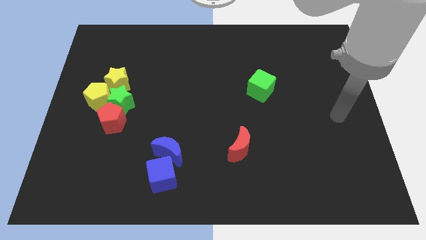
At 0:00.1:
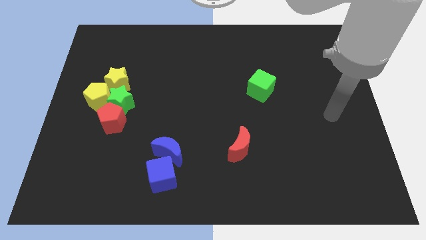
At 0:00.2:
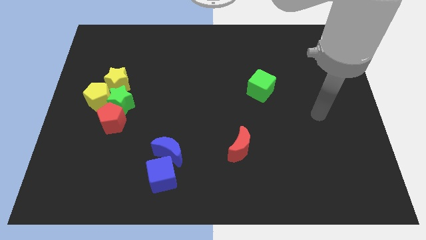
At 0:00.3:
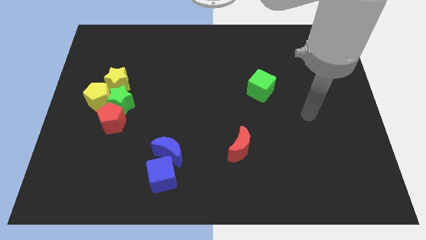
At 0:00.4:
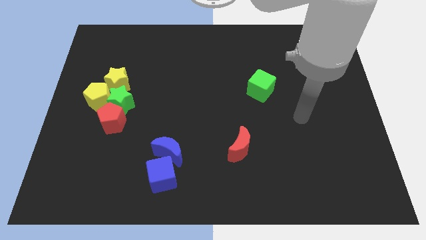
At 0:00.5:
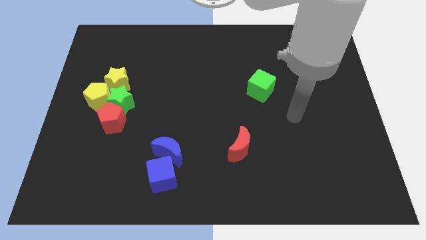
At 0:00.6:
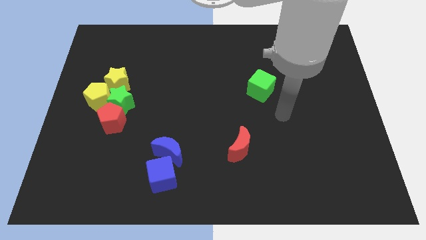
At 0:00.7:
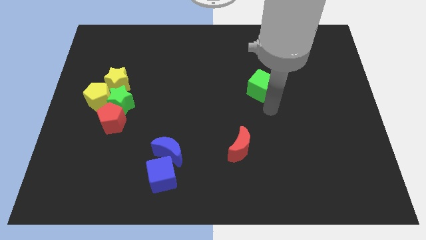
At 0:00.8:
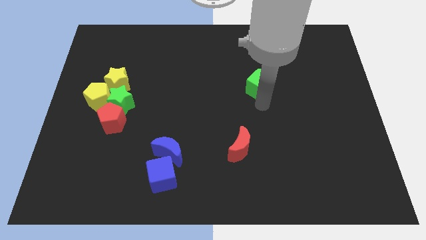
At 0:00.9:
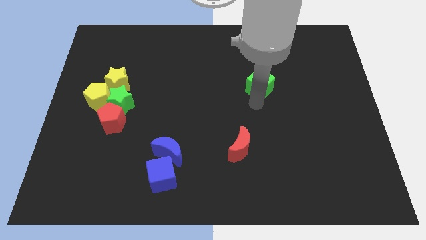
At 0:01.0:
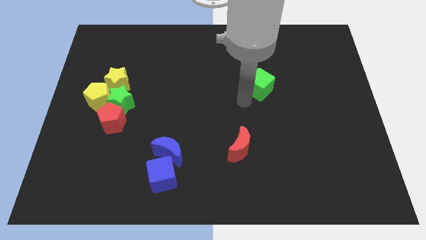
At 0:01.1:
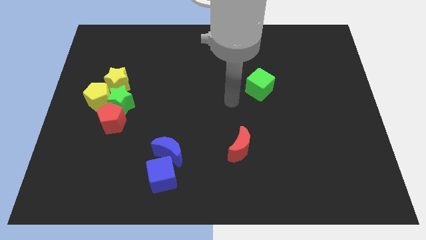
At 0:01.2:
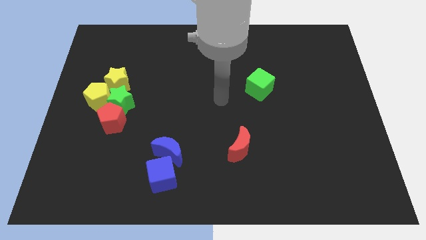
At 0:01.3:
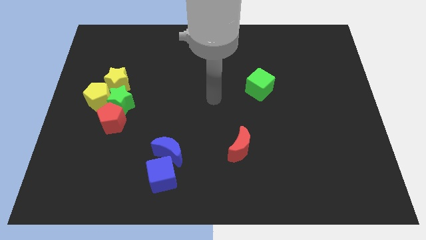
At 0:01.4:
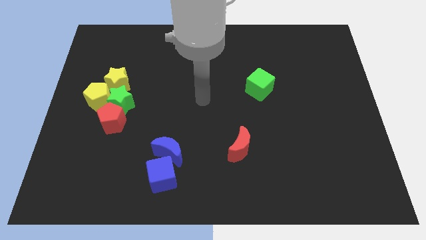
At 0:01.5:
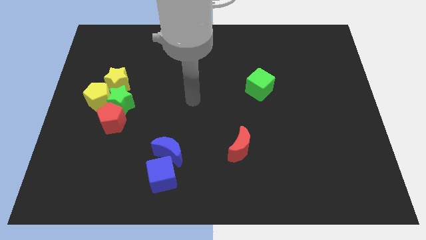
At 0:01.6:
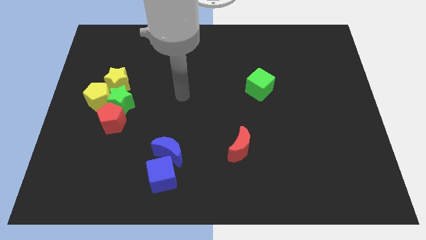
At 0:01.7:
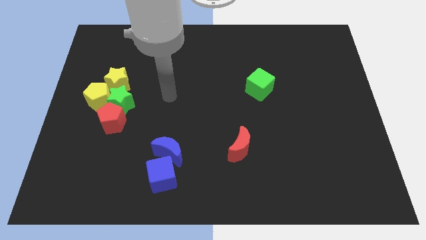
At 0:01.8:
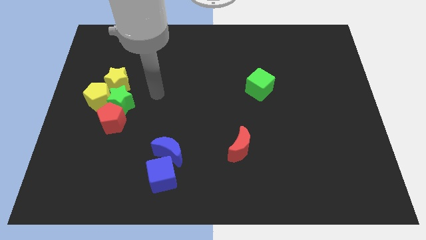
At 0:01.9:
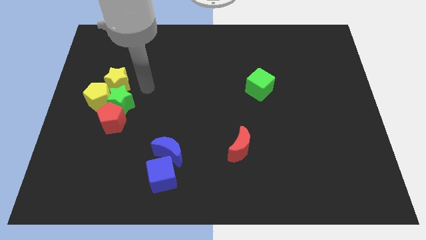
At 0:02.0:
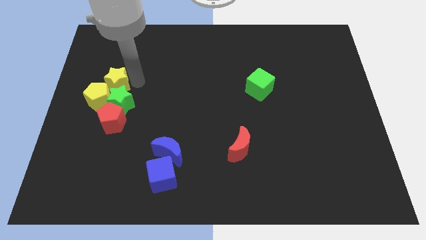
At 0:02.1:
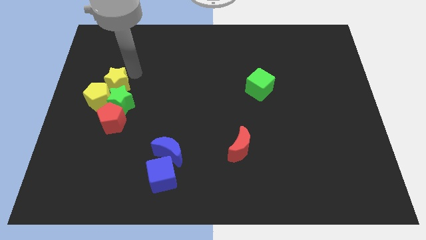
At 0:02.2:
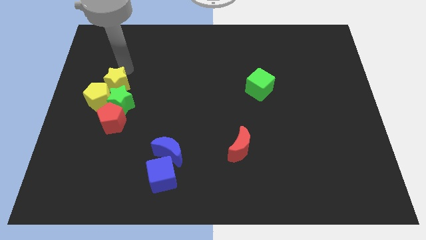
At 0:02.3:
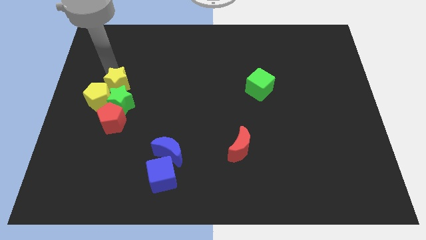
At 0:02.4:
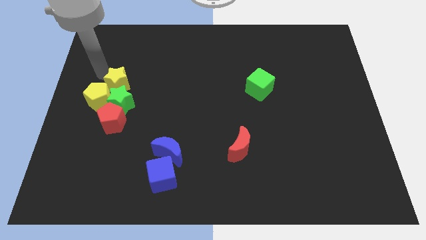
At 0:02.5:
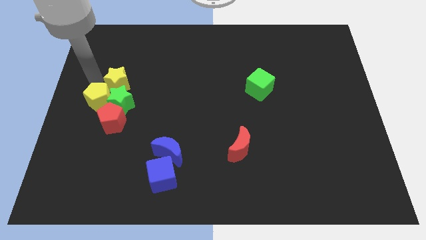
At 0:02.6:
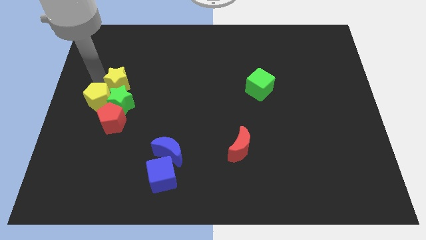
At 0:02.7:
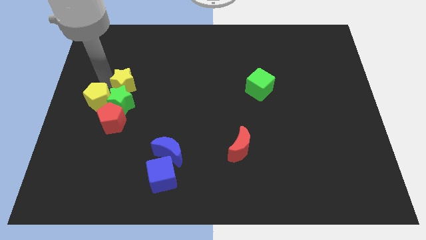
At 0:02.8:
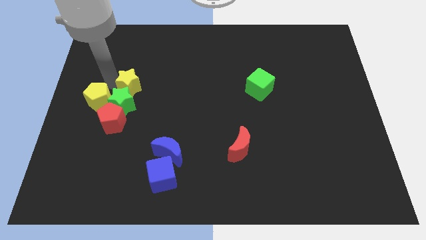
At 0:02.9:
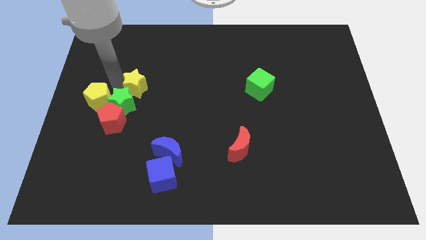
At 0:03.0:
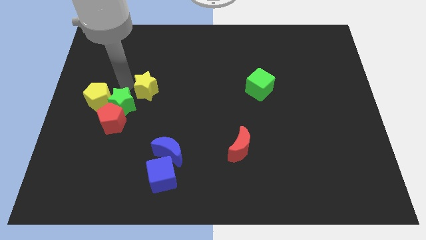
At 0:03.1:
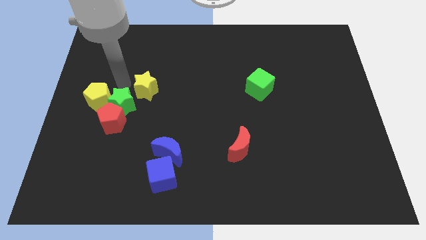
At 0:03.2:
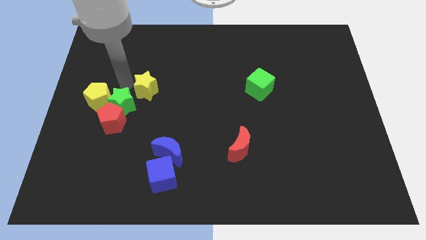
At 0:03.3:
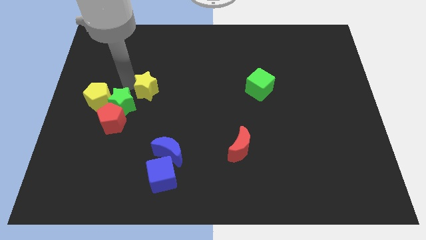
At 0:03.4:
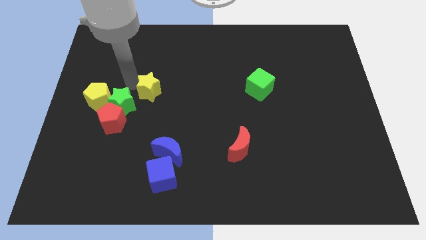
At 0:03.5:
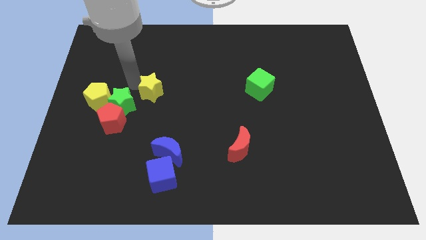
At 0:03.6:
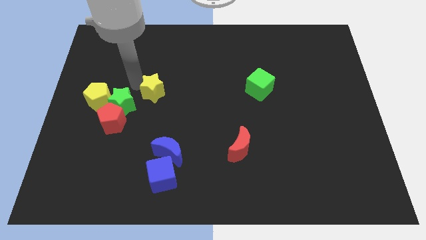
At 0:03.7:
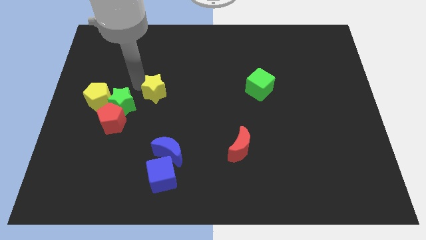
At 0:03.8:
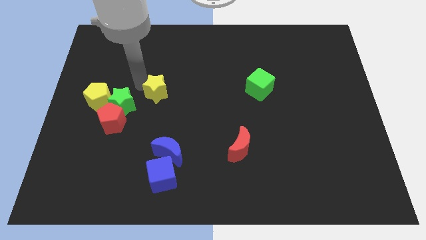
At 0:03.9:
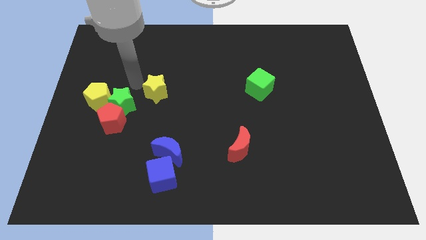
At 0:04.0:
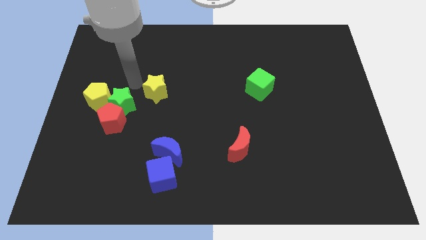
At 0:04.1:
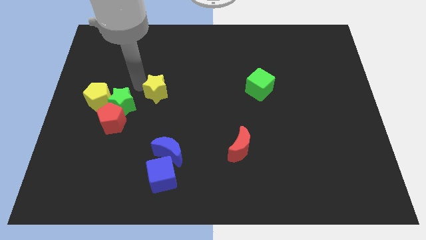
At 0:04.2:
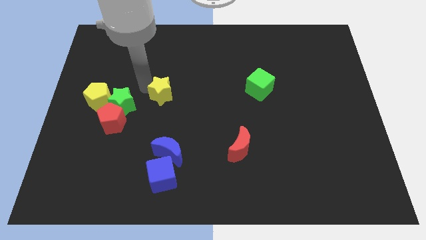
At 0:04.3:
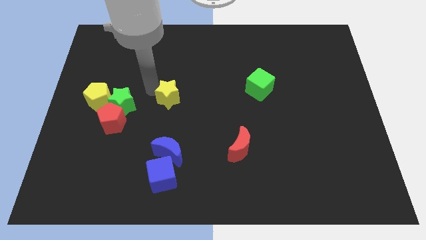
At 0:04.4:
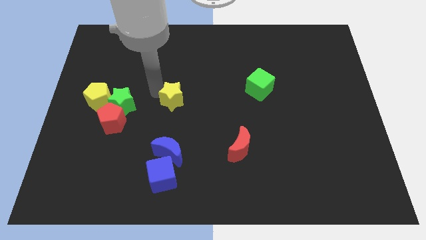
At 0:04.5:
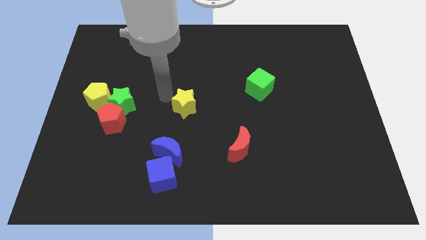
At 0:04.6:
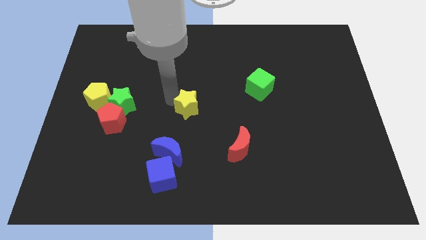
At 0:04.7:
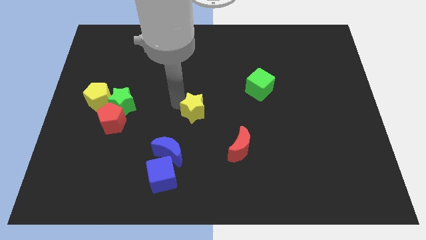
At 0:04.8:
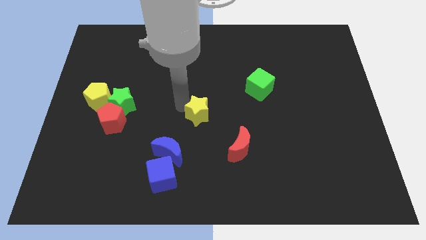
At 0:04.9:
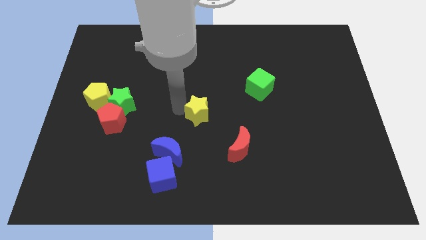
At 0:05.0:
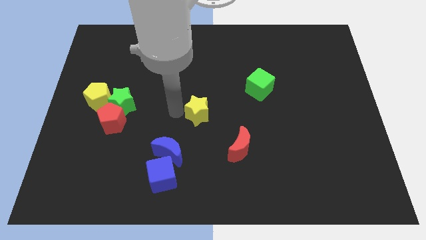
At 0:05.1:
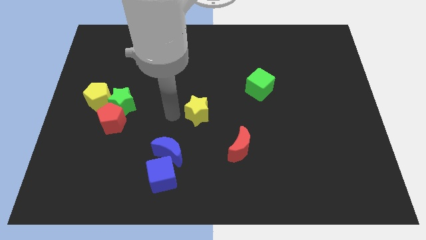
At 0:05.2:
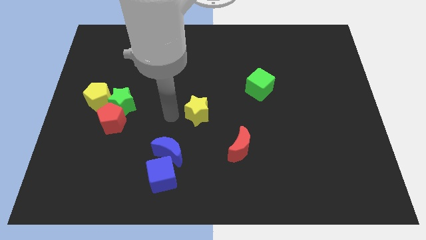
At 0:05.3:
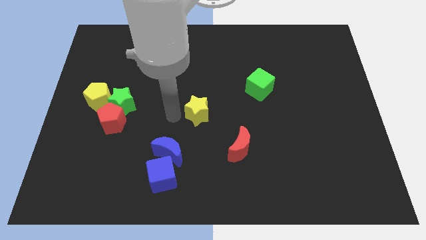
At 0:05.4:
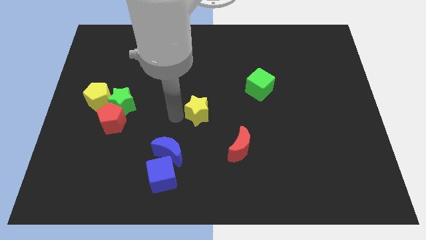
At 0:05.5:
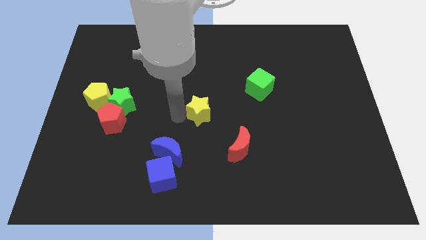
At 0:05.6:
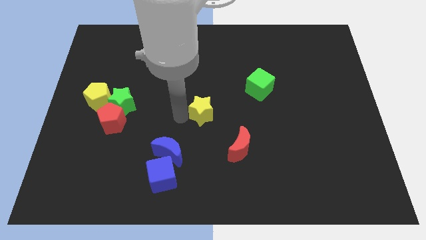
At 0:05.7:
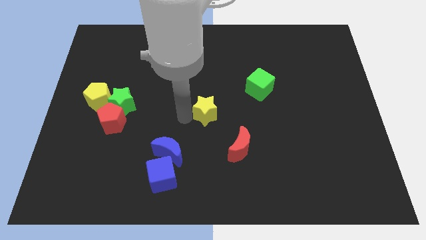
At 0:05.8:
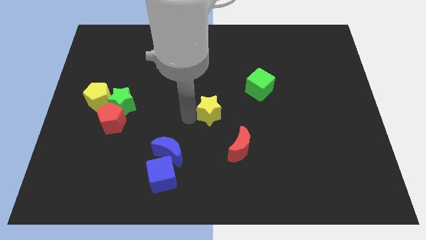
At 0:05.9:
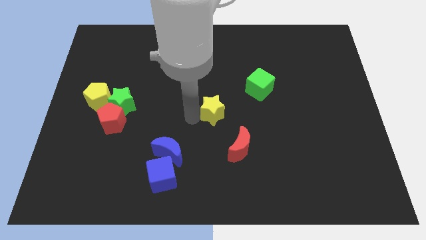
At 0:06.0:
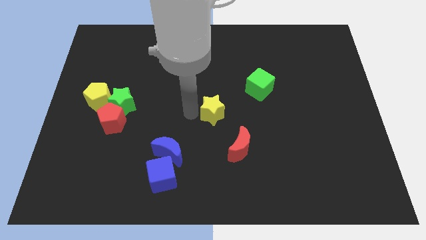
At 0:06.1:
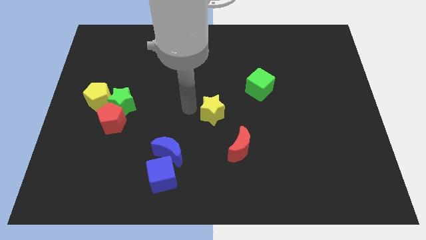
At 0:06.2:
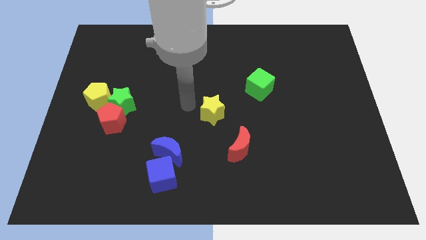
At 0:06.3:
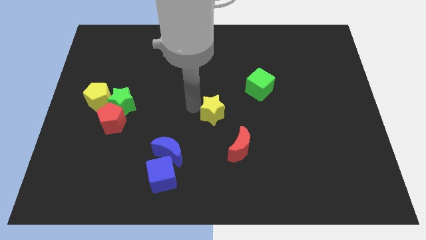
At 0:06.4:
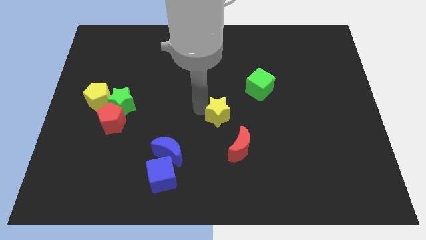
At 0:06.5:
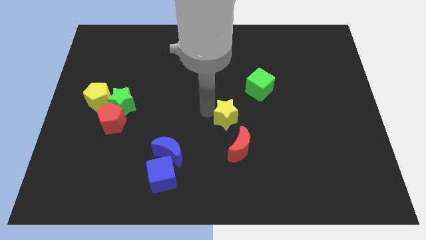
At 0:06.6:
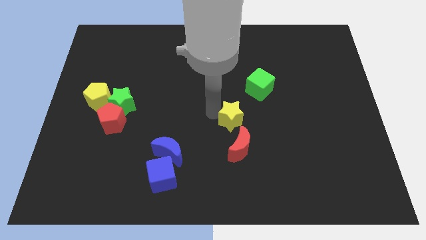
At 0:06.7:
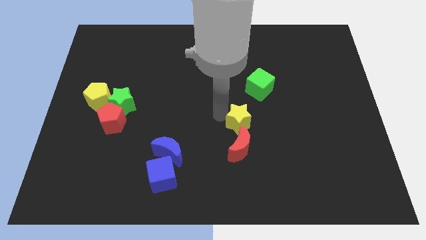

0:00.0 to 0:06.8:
push the yellow star to the top right of the red moon

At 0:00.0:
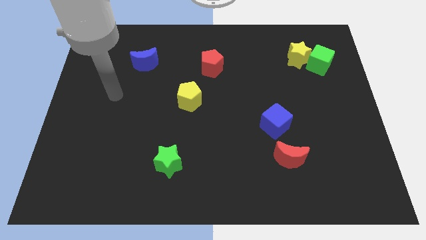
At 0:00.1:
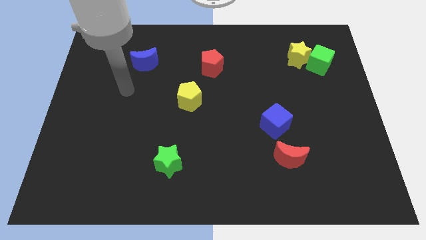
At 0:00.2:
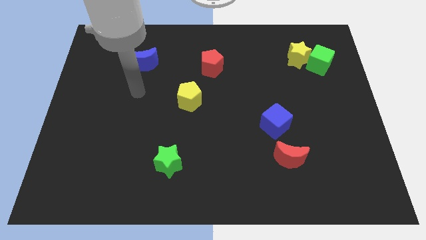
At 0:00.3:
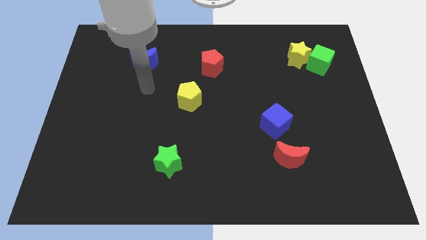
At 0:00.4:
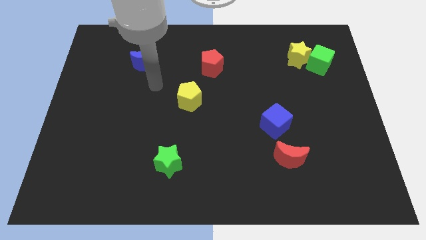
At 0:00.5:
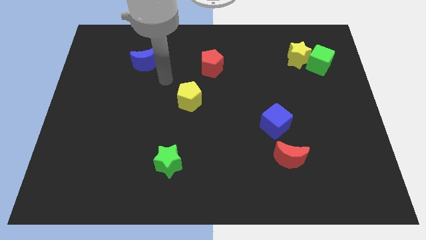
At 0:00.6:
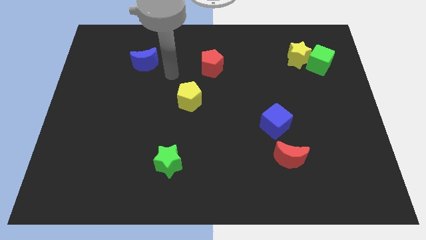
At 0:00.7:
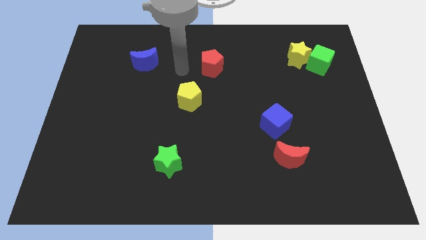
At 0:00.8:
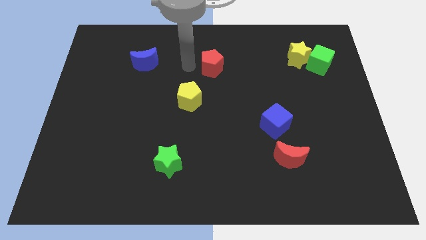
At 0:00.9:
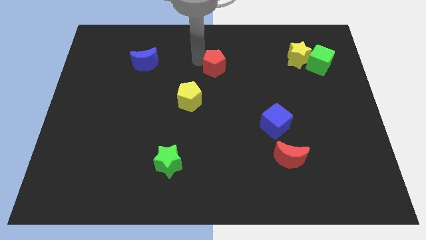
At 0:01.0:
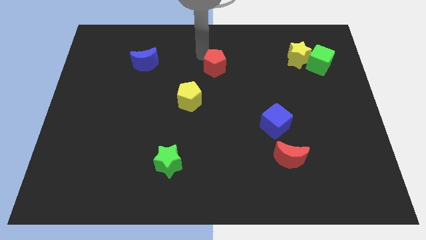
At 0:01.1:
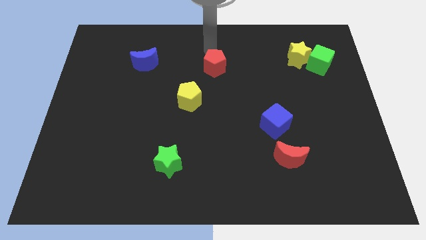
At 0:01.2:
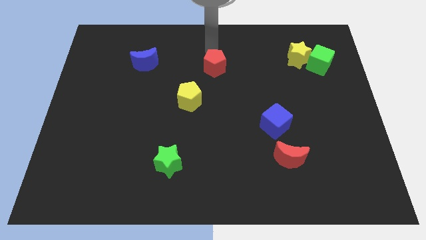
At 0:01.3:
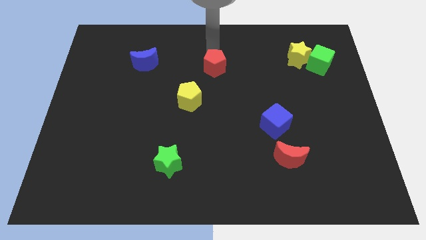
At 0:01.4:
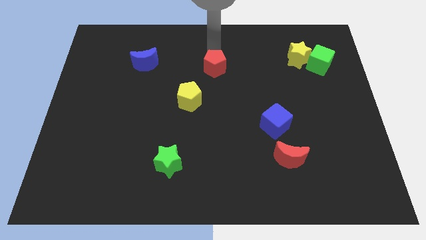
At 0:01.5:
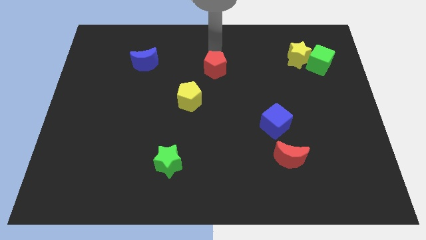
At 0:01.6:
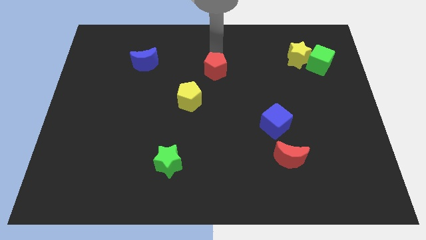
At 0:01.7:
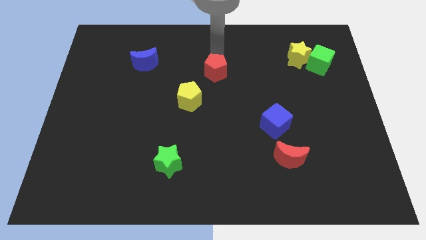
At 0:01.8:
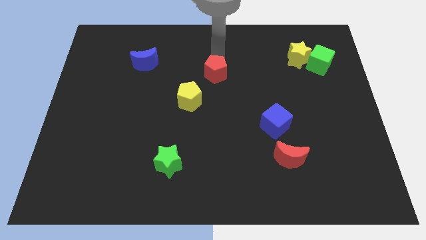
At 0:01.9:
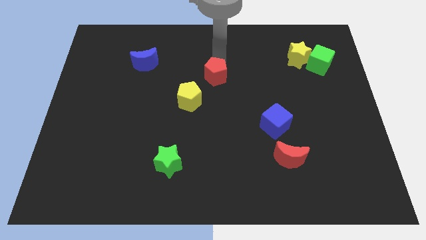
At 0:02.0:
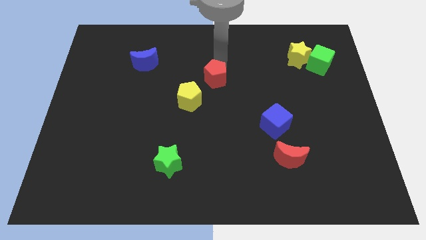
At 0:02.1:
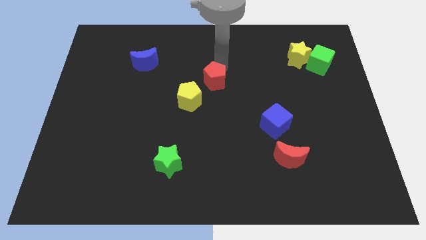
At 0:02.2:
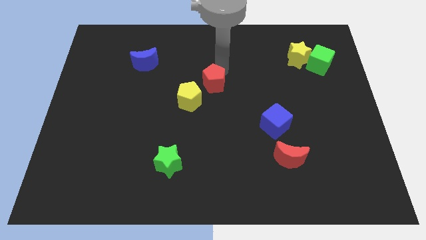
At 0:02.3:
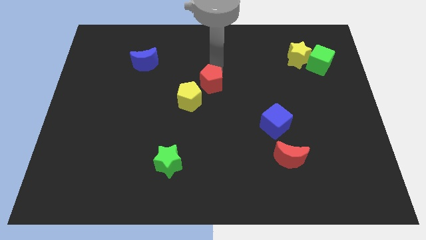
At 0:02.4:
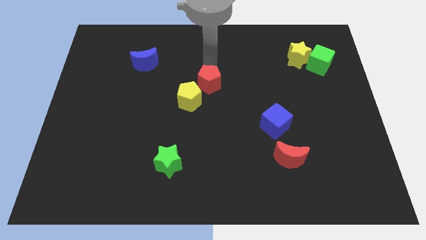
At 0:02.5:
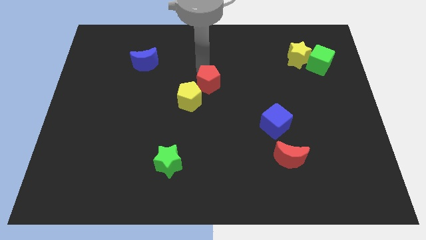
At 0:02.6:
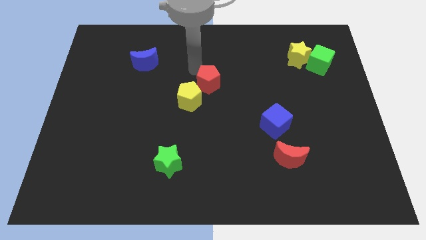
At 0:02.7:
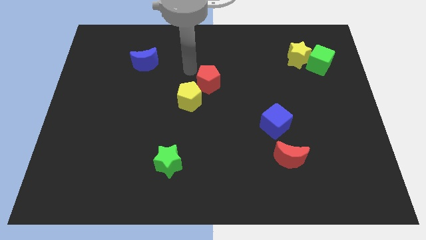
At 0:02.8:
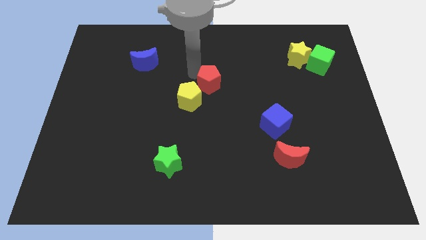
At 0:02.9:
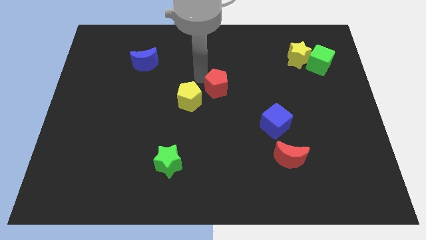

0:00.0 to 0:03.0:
push the red pentagon to the right of the yellow pentagon
